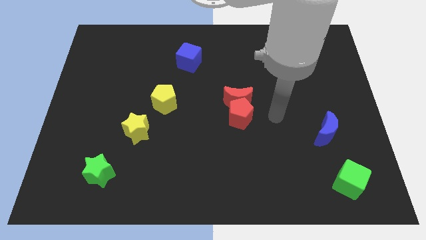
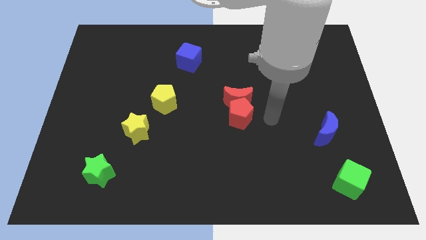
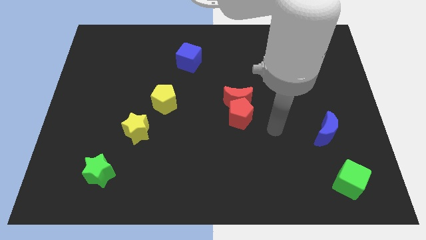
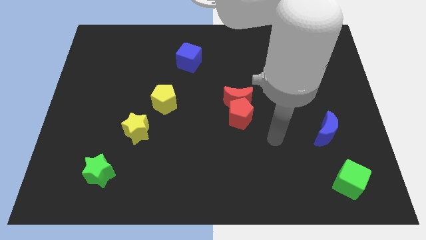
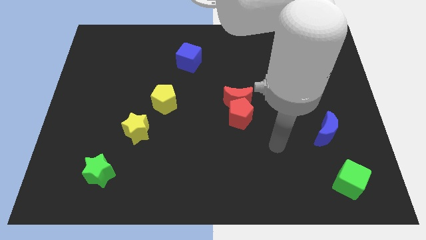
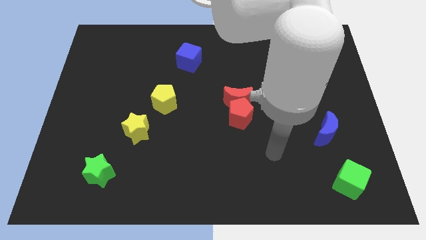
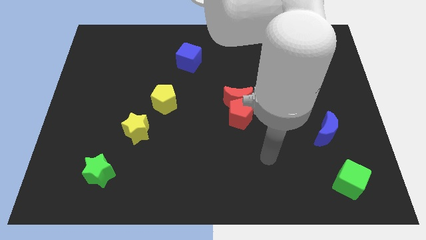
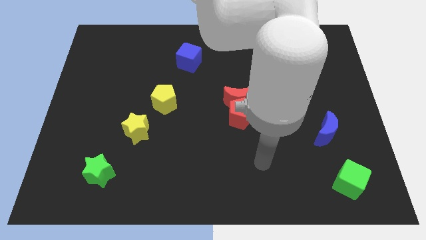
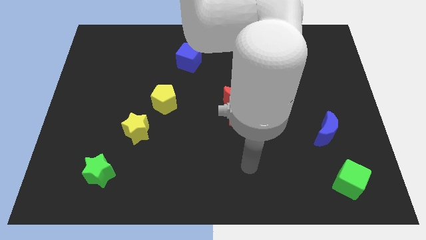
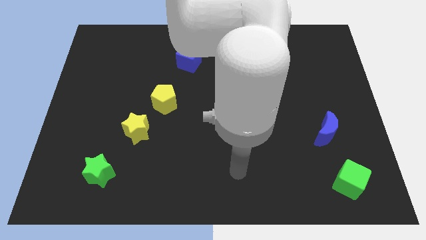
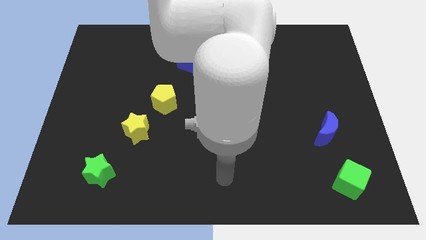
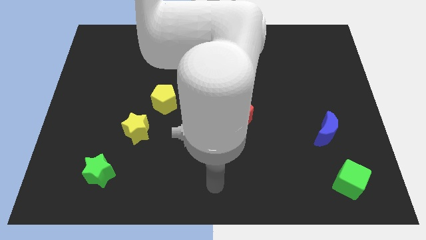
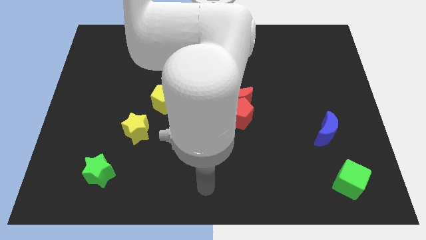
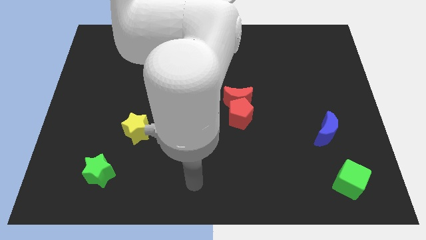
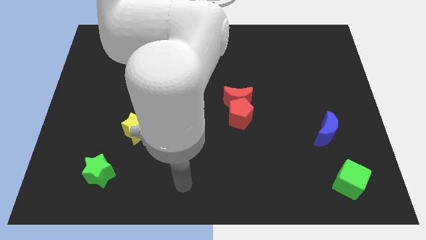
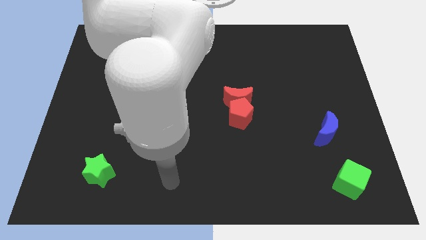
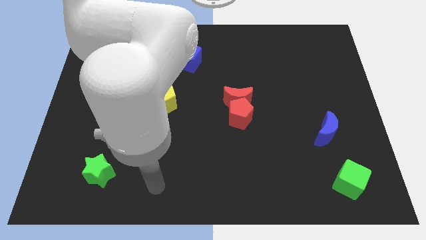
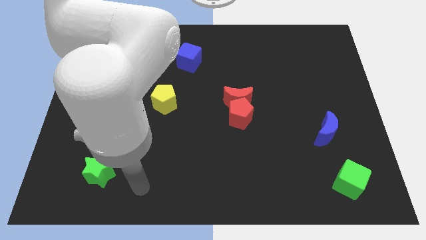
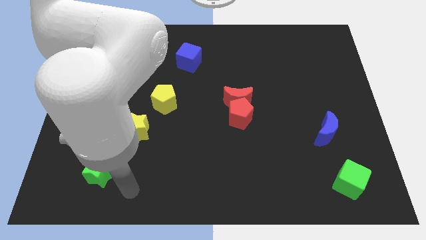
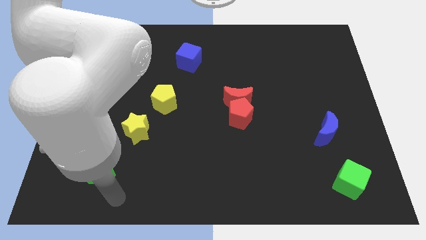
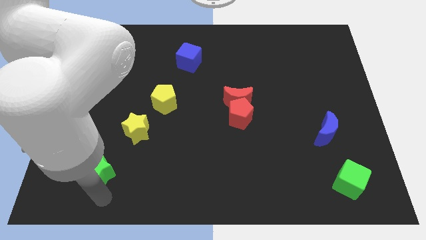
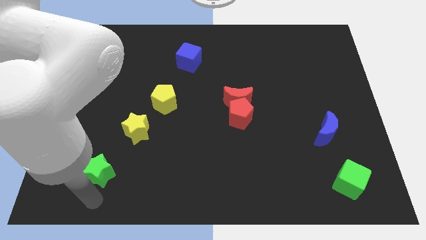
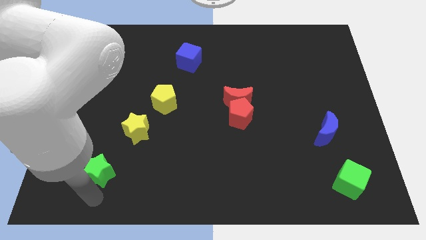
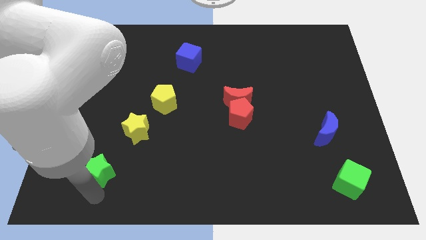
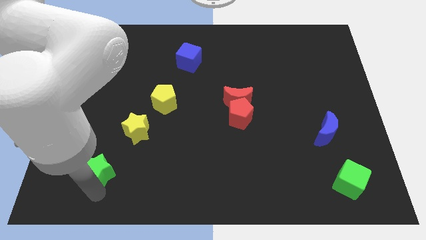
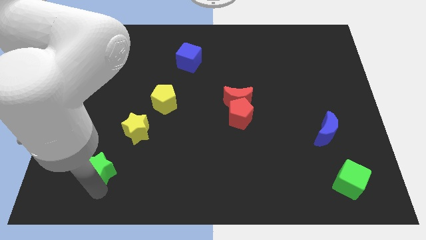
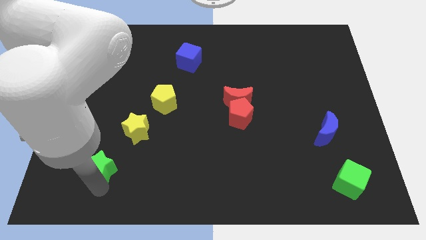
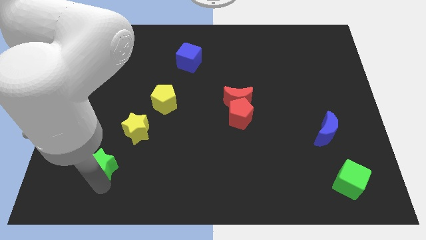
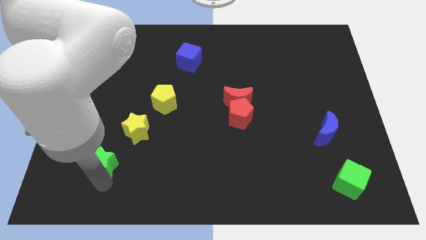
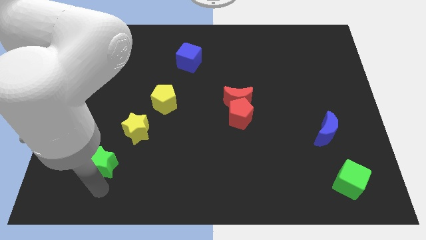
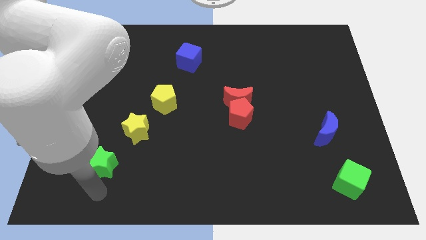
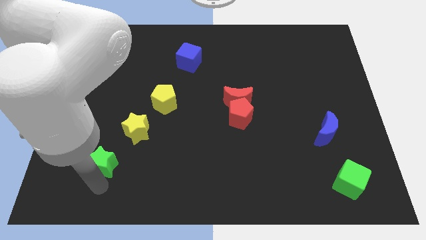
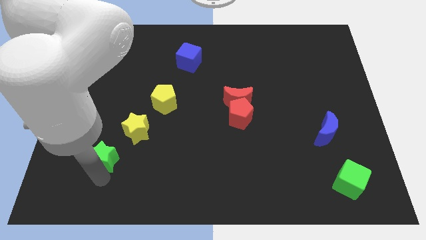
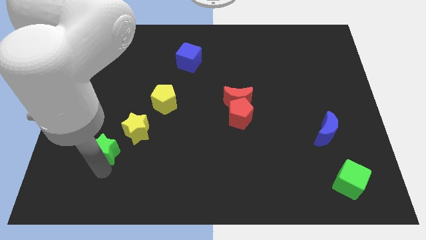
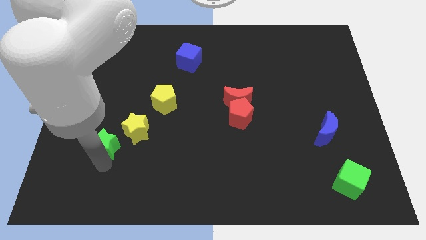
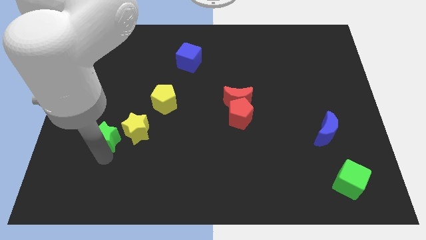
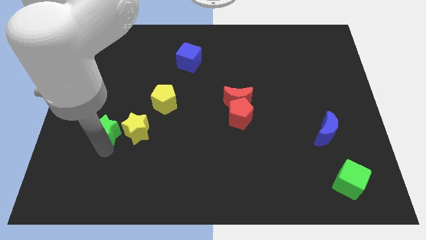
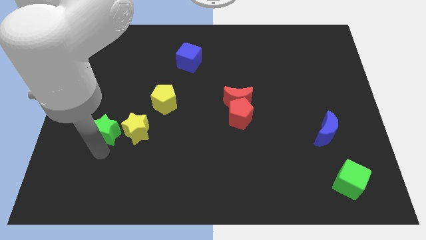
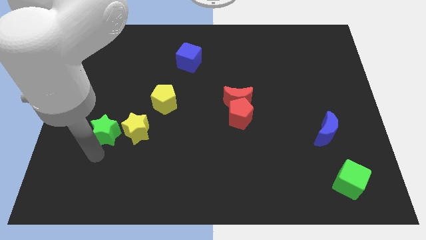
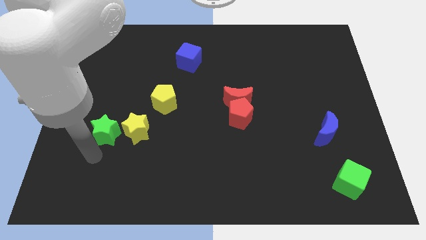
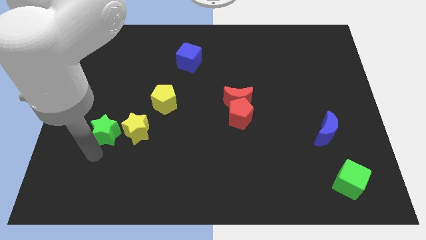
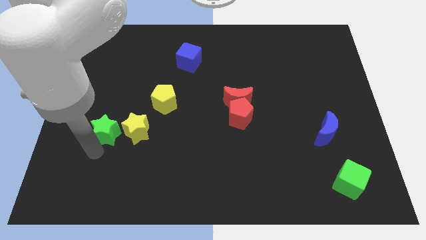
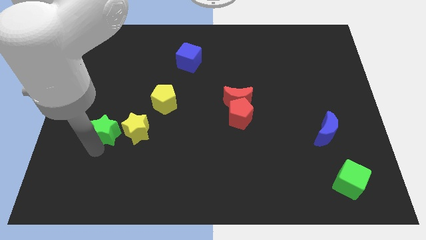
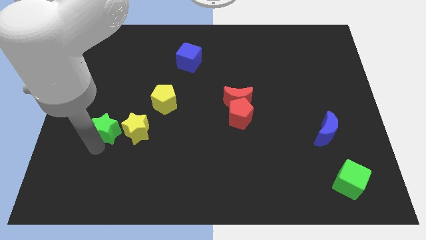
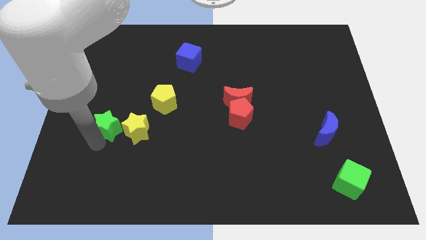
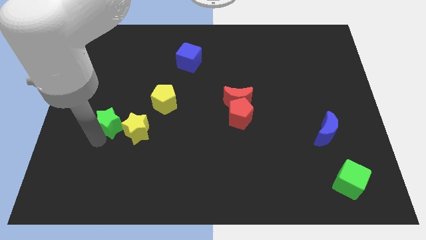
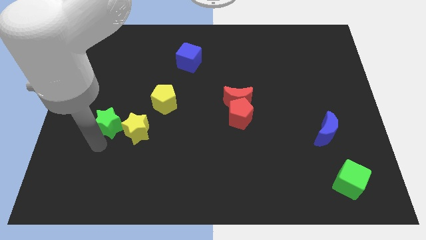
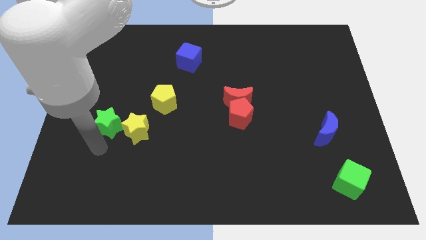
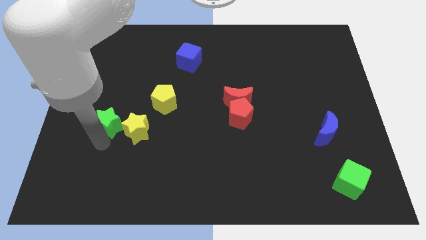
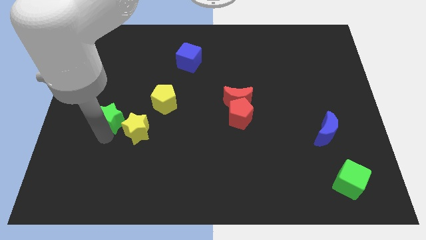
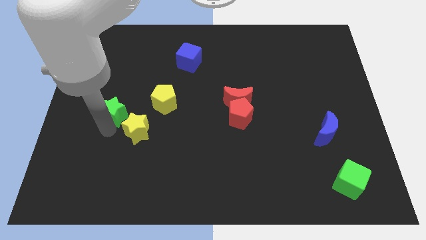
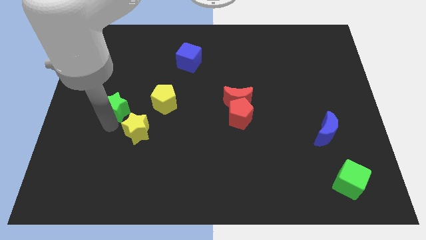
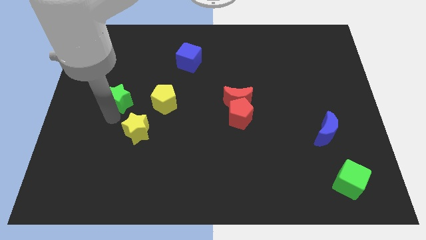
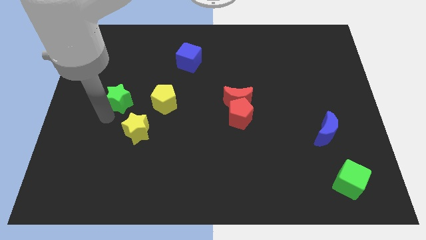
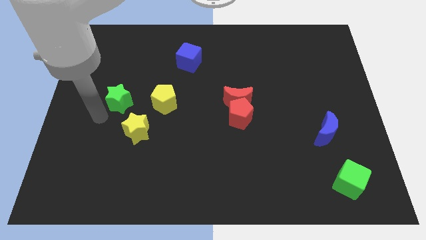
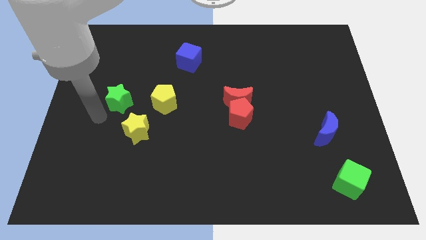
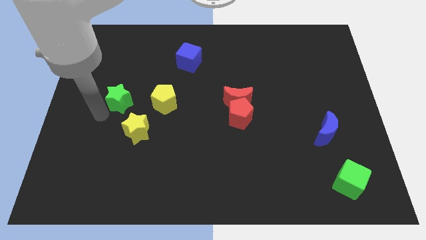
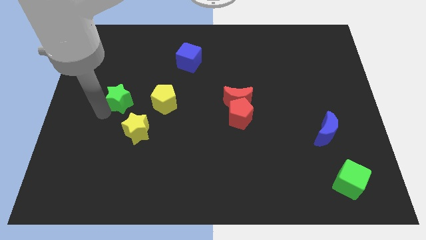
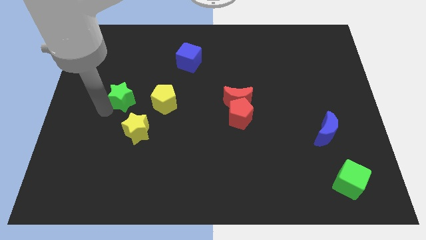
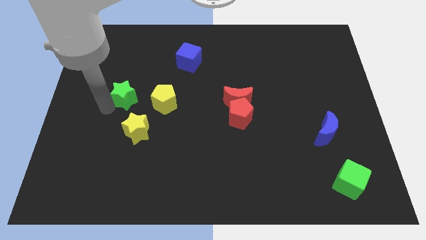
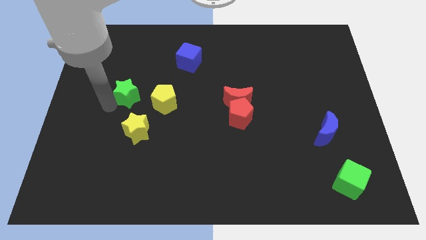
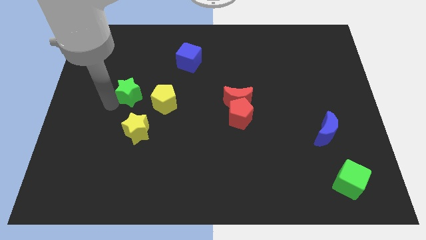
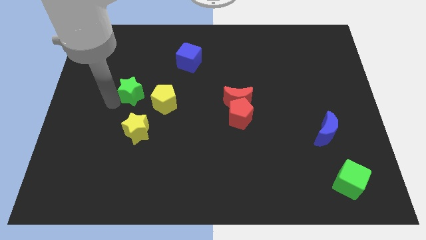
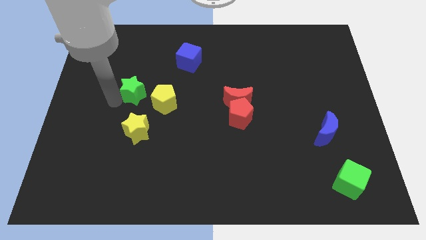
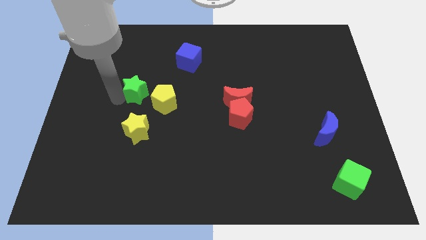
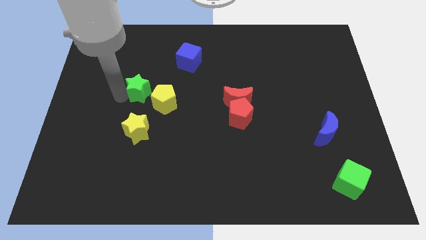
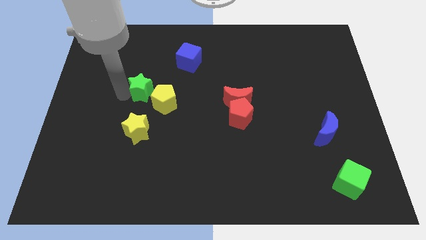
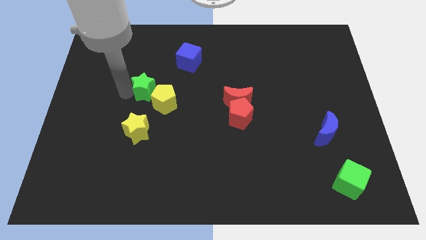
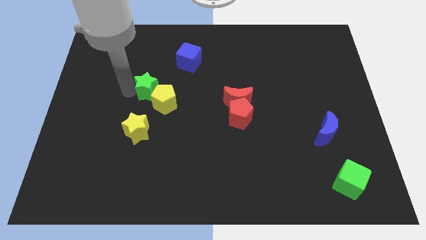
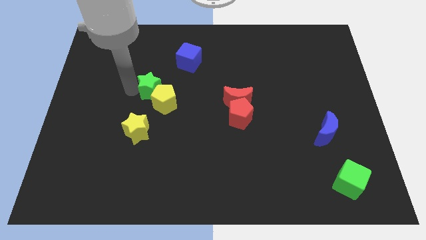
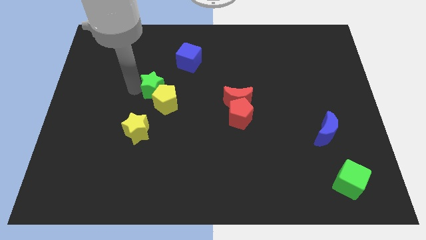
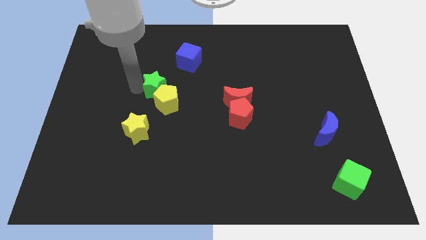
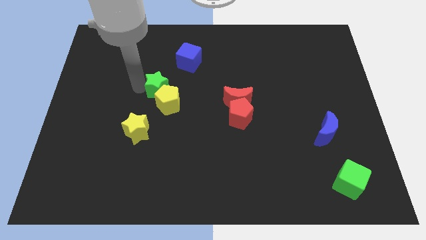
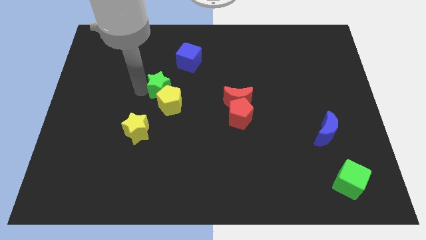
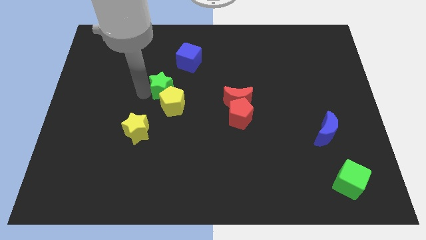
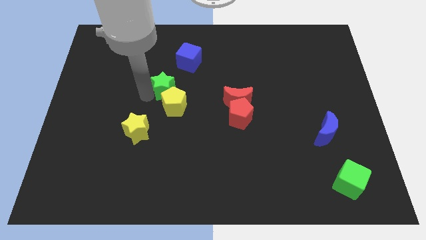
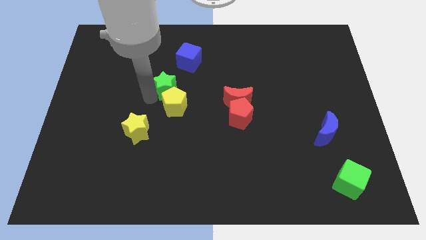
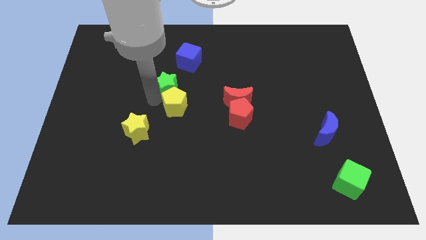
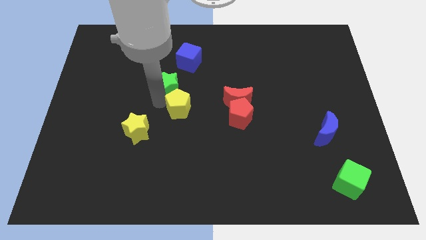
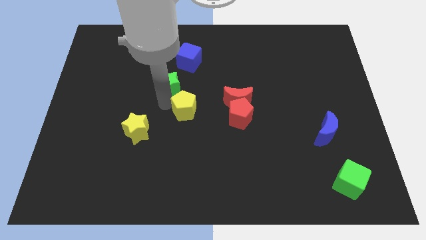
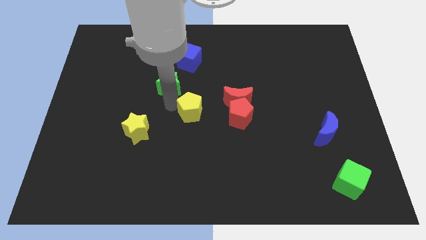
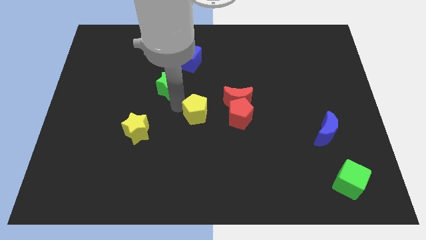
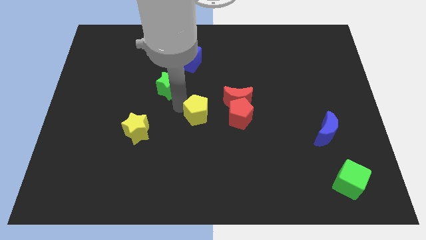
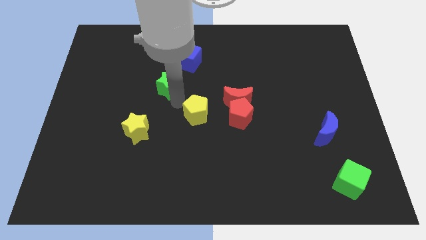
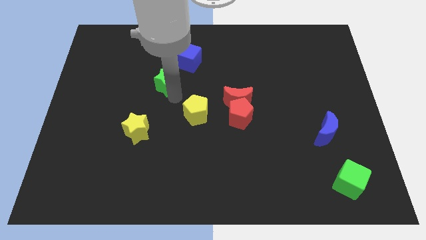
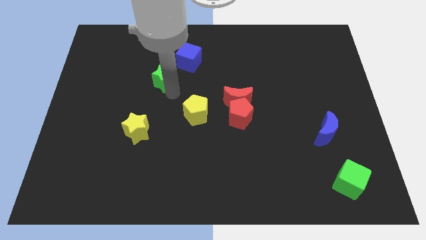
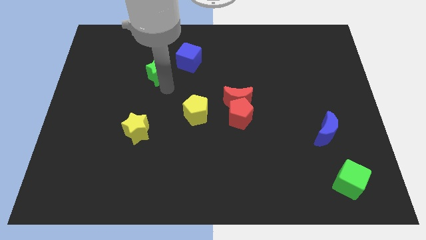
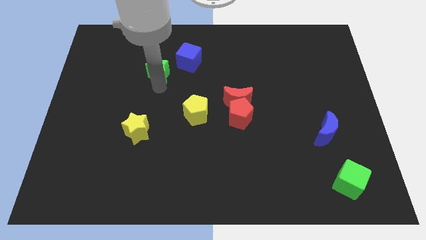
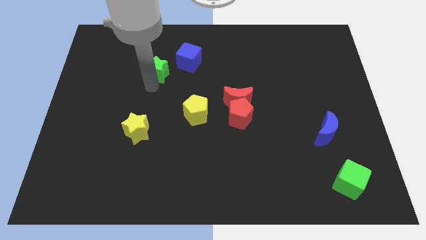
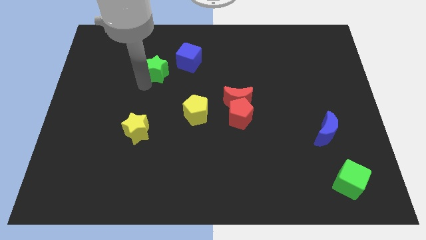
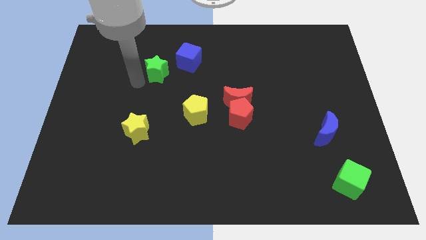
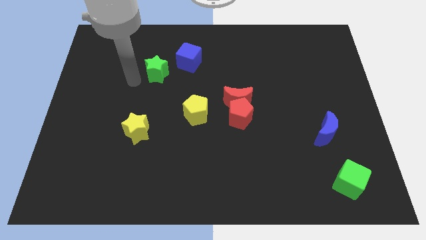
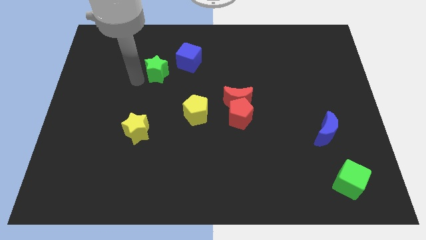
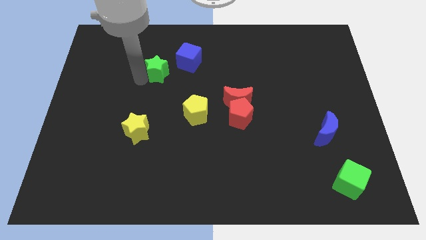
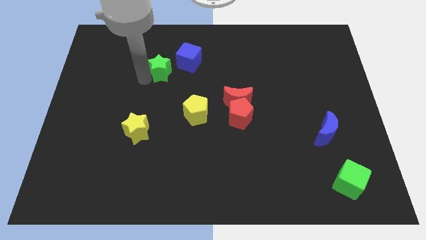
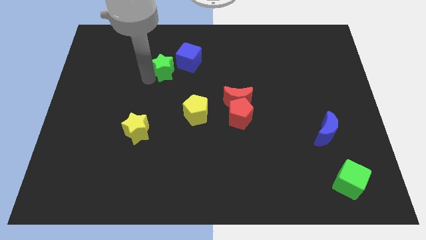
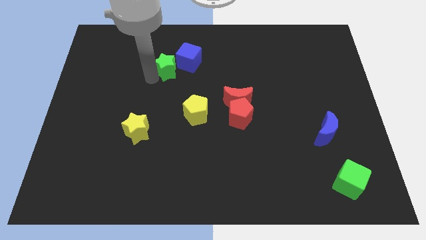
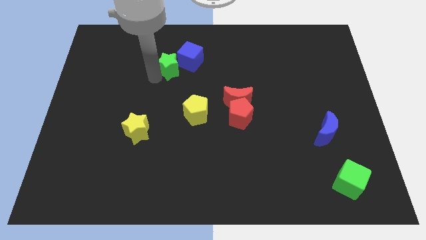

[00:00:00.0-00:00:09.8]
push the green star next to the blue cube
